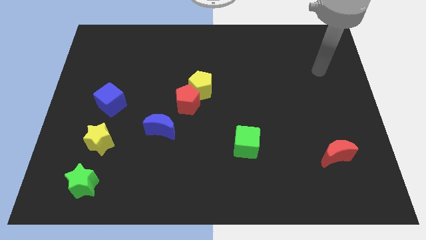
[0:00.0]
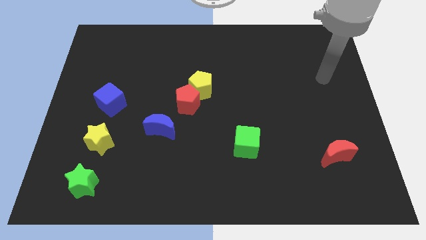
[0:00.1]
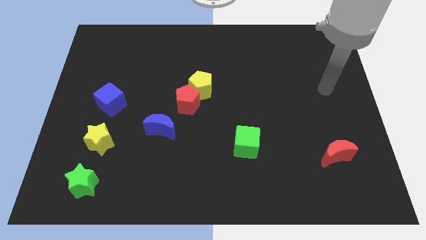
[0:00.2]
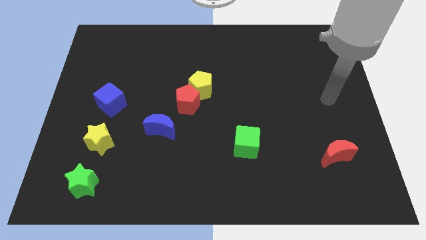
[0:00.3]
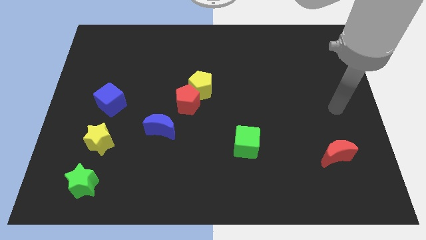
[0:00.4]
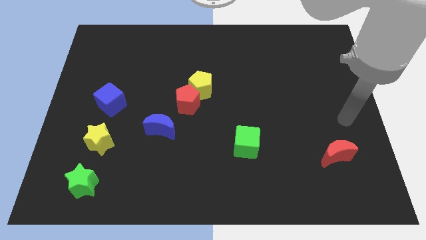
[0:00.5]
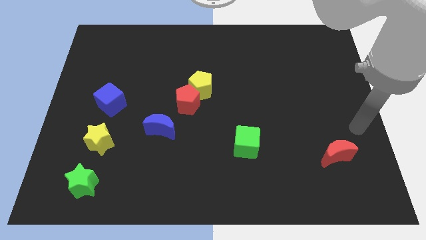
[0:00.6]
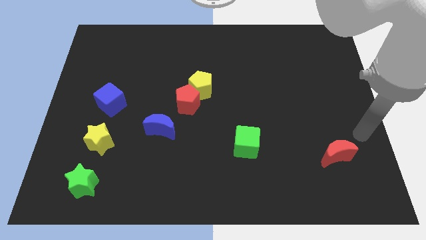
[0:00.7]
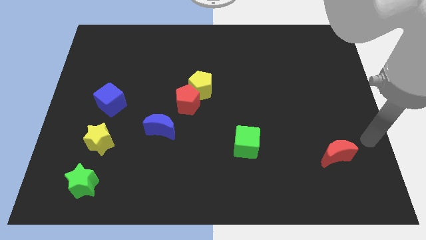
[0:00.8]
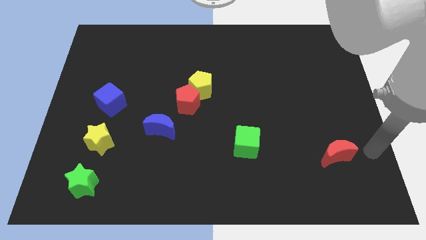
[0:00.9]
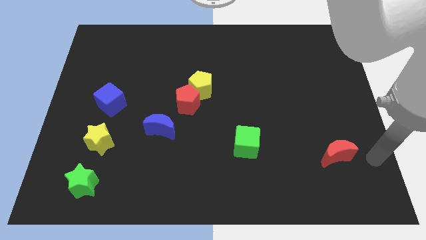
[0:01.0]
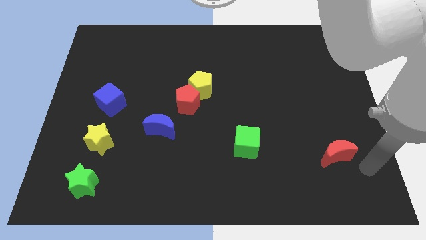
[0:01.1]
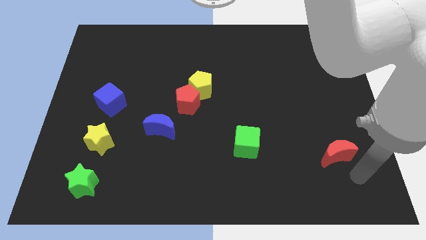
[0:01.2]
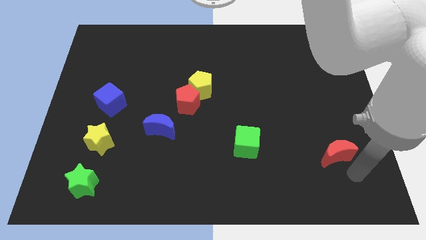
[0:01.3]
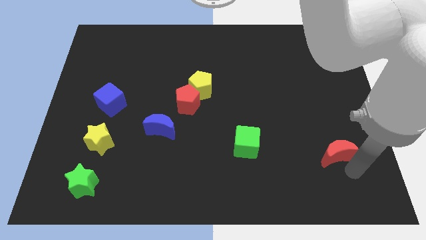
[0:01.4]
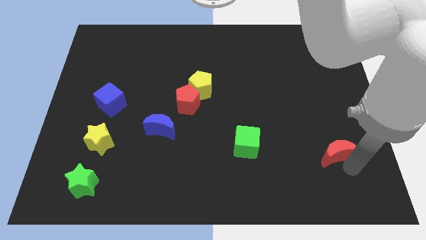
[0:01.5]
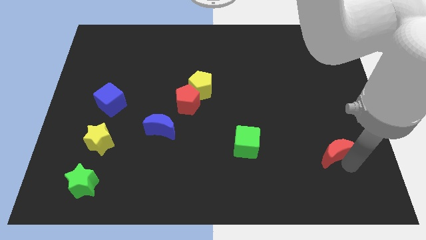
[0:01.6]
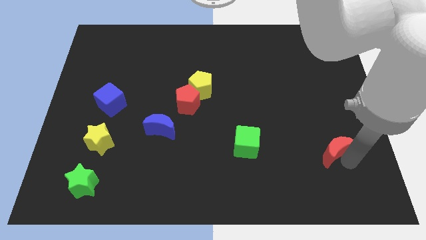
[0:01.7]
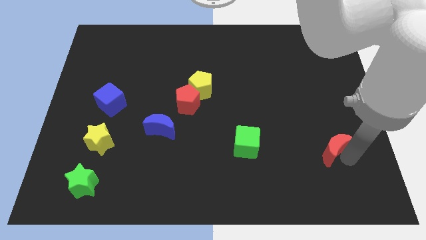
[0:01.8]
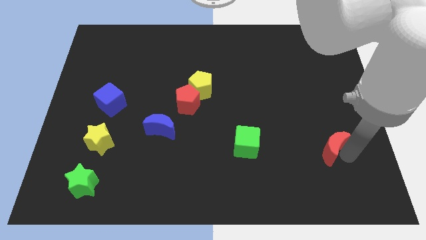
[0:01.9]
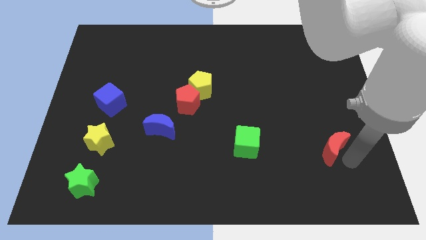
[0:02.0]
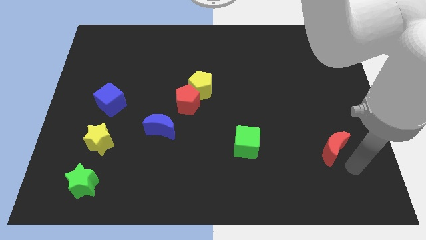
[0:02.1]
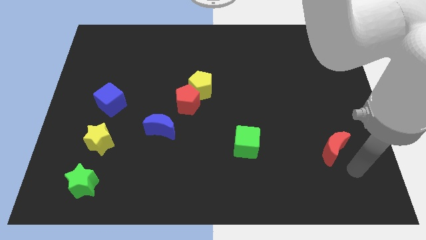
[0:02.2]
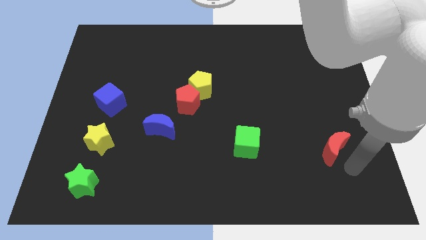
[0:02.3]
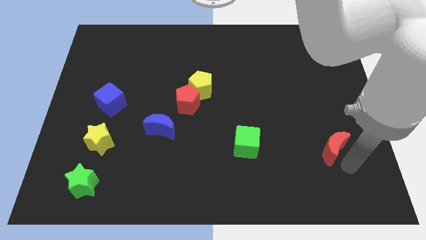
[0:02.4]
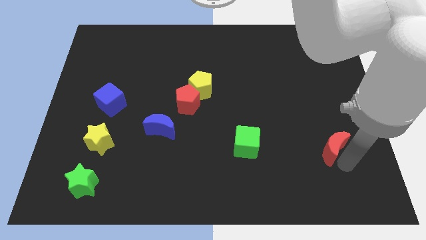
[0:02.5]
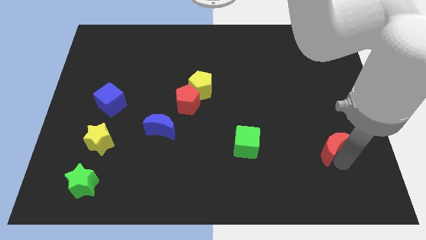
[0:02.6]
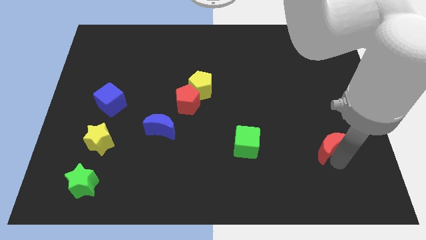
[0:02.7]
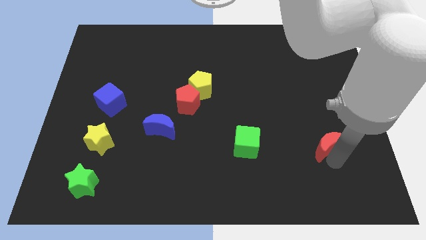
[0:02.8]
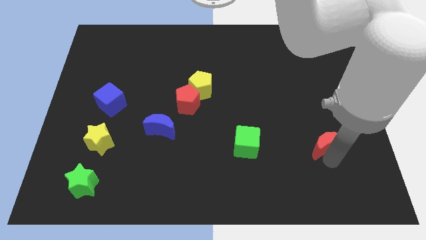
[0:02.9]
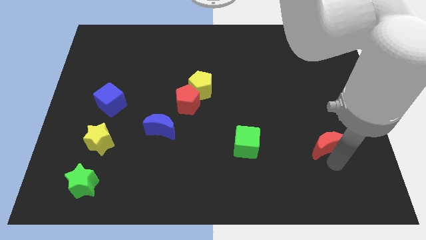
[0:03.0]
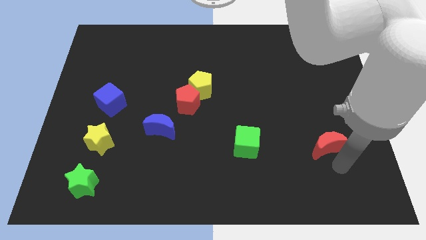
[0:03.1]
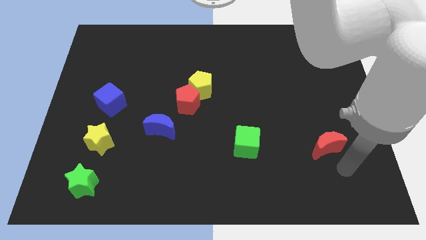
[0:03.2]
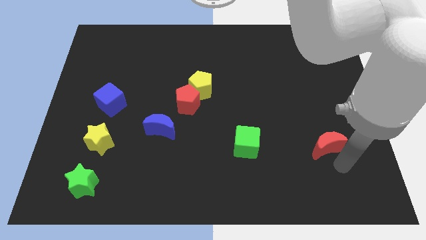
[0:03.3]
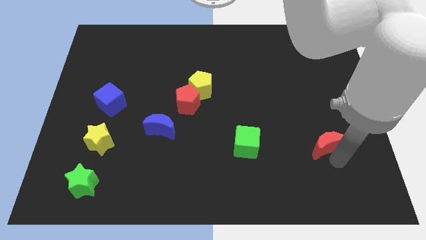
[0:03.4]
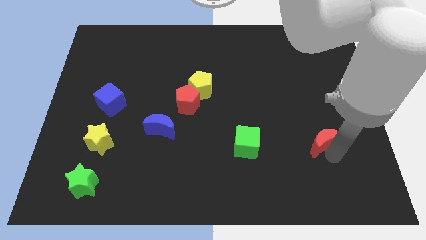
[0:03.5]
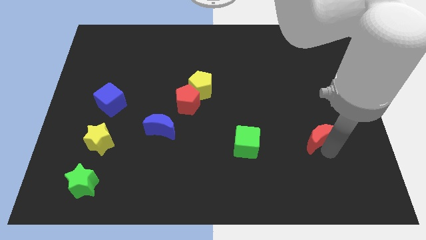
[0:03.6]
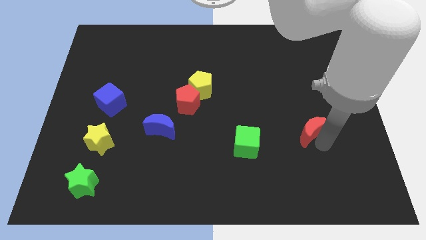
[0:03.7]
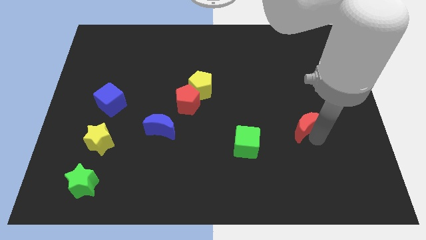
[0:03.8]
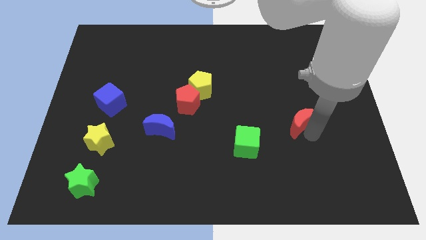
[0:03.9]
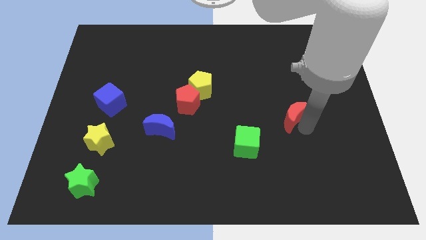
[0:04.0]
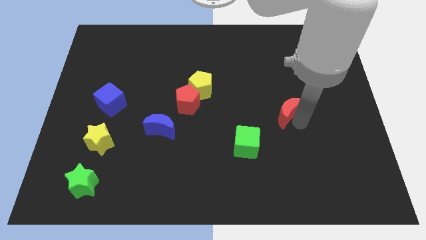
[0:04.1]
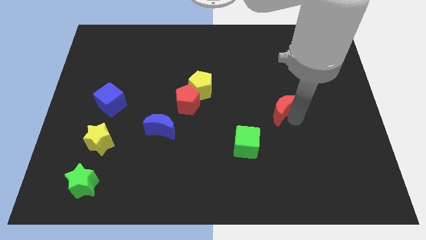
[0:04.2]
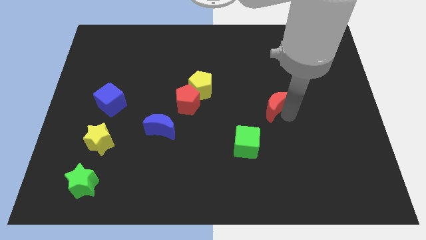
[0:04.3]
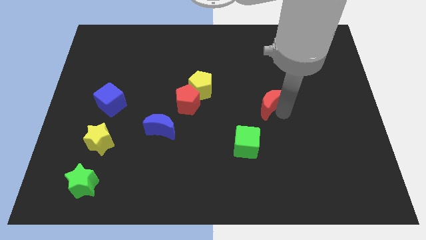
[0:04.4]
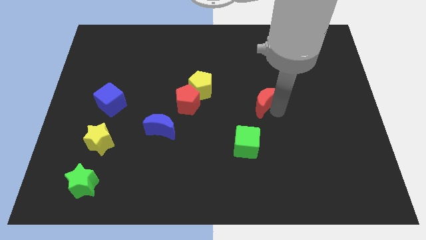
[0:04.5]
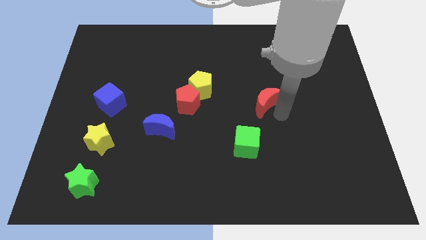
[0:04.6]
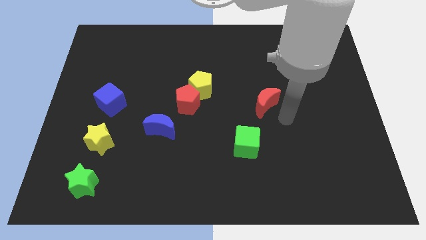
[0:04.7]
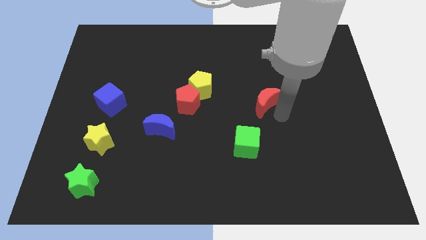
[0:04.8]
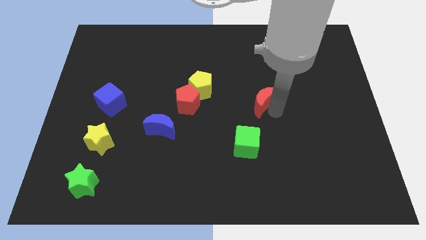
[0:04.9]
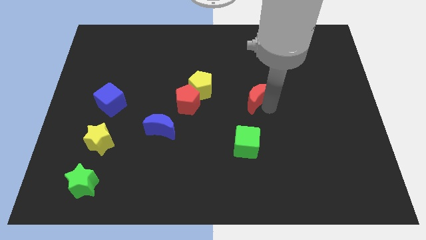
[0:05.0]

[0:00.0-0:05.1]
push the red moon to the right of the yellow pentagon

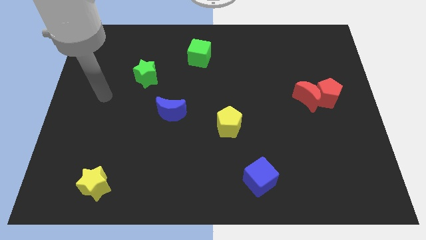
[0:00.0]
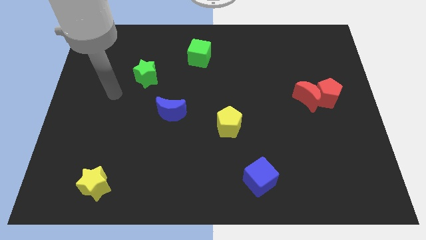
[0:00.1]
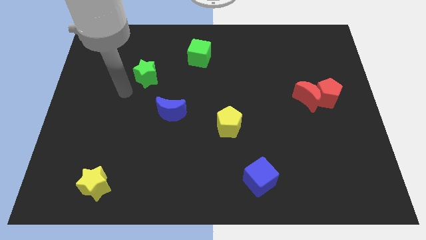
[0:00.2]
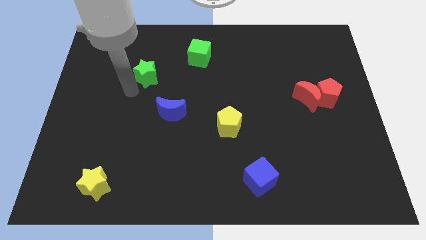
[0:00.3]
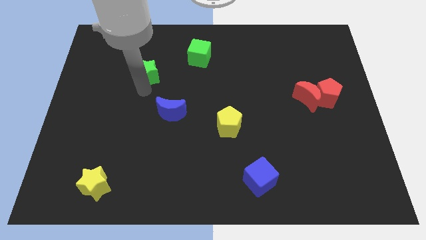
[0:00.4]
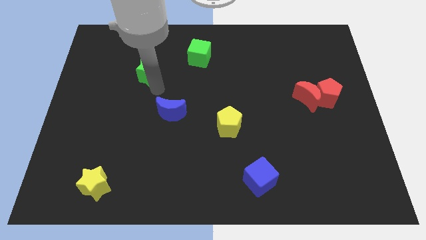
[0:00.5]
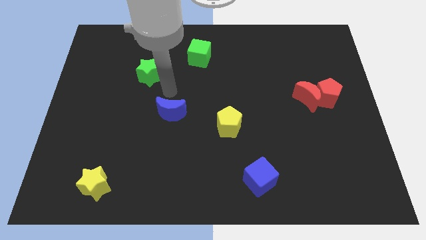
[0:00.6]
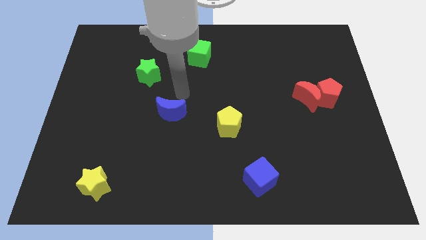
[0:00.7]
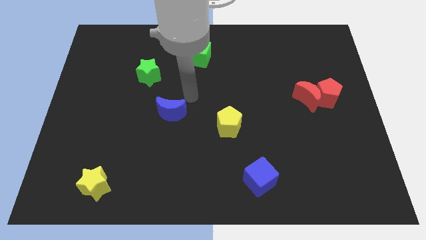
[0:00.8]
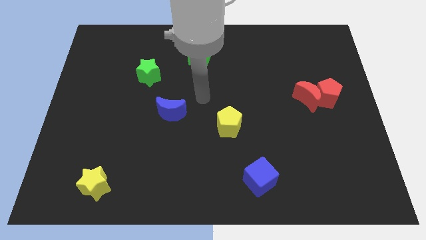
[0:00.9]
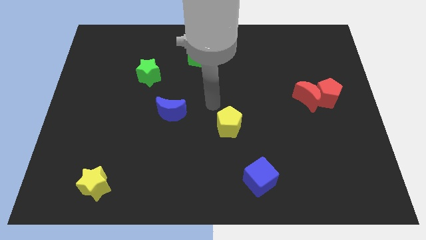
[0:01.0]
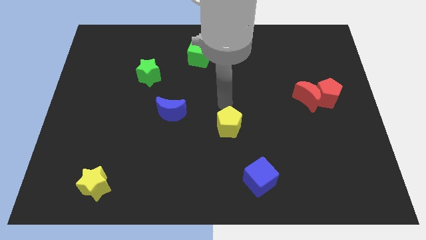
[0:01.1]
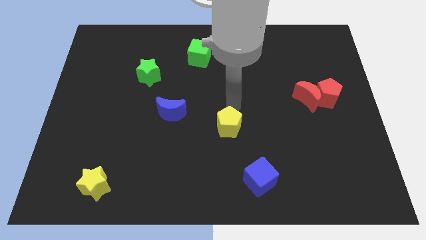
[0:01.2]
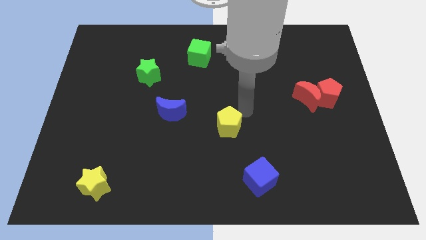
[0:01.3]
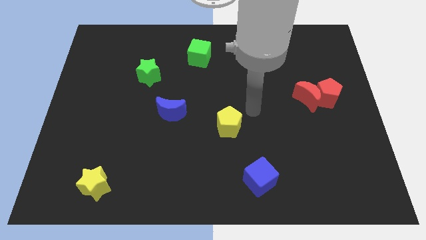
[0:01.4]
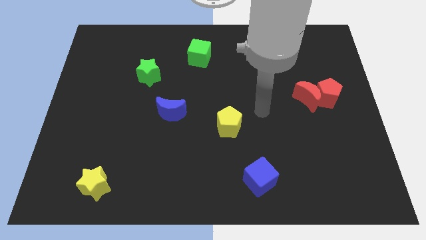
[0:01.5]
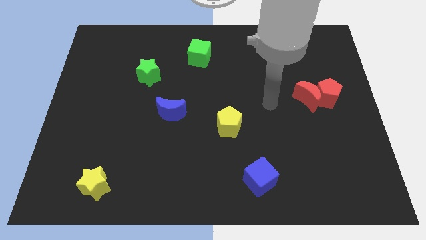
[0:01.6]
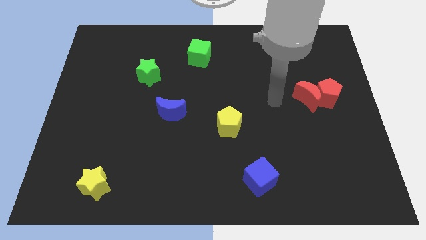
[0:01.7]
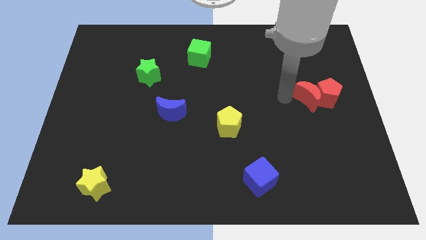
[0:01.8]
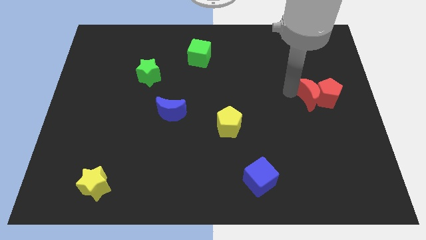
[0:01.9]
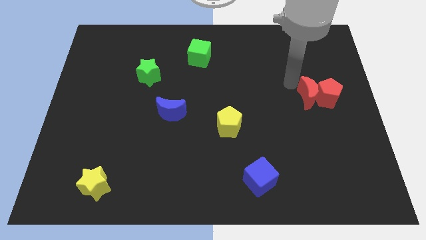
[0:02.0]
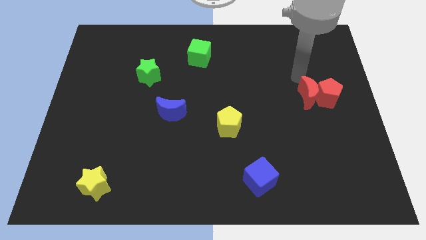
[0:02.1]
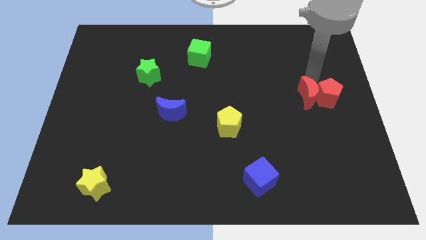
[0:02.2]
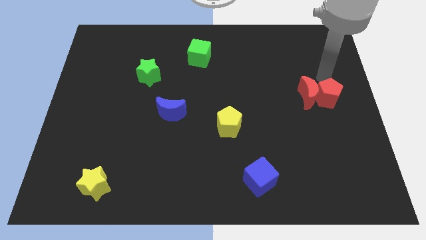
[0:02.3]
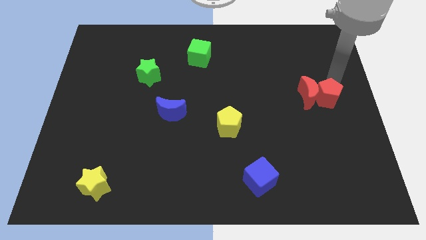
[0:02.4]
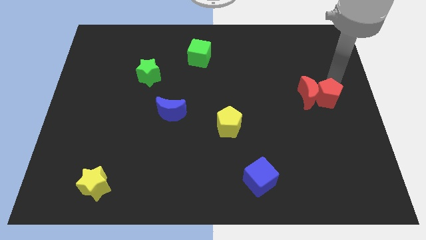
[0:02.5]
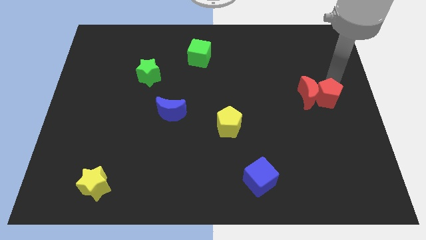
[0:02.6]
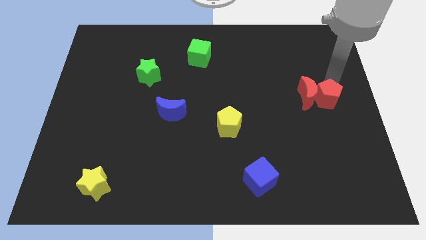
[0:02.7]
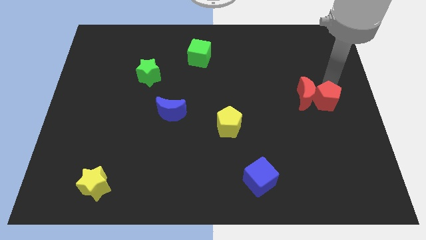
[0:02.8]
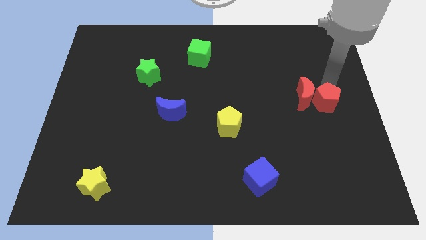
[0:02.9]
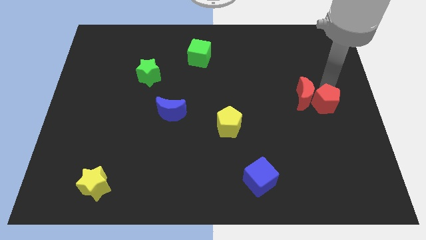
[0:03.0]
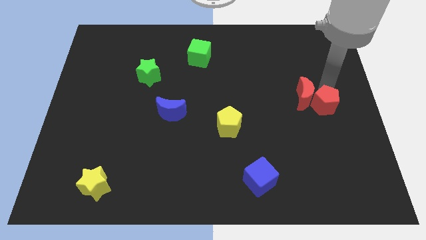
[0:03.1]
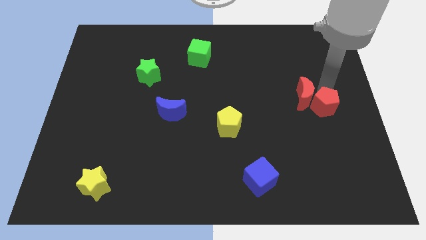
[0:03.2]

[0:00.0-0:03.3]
move the red pentagon to the bottom of the red moon
